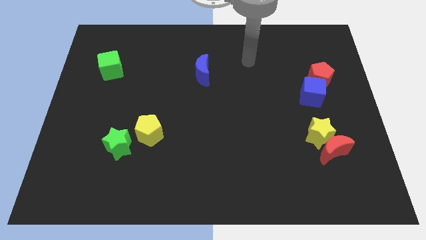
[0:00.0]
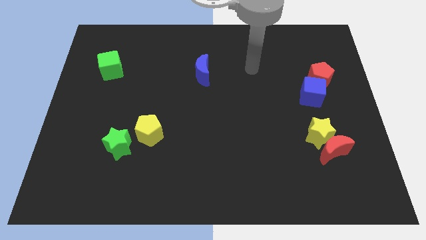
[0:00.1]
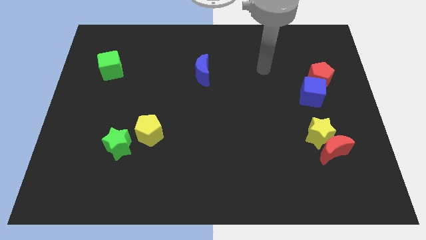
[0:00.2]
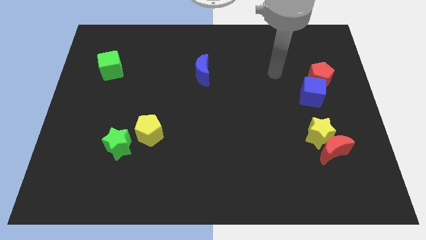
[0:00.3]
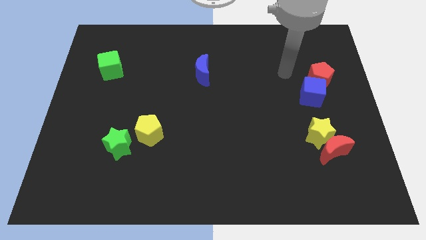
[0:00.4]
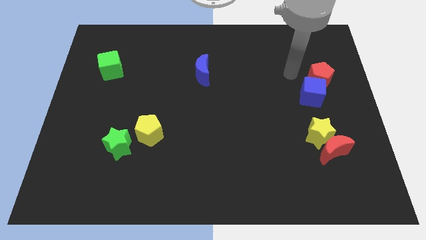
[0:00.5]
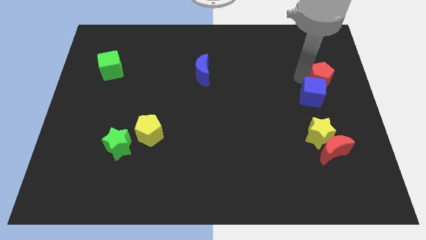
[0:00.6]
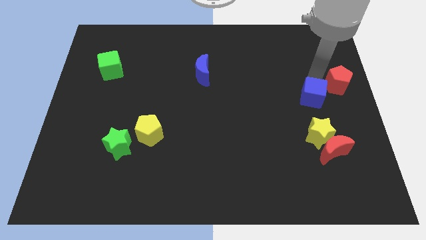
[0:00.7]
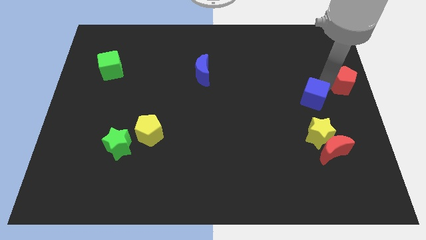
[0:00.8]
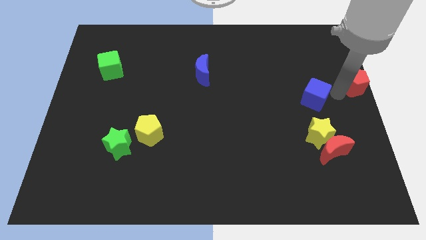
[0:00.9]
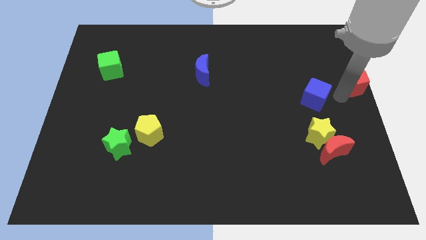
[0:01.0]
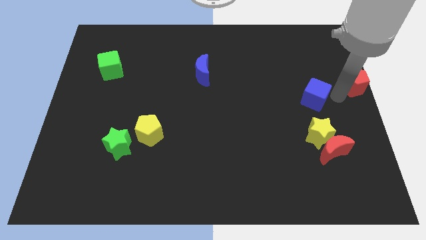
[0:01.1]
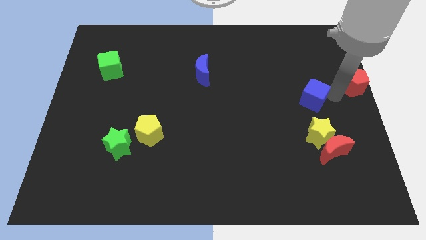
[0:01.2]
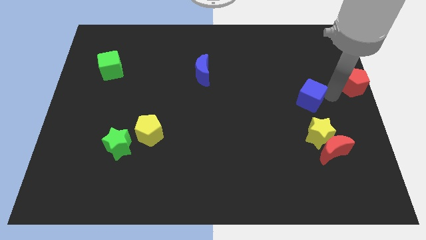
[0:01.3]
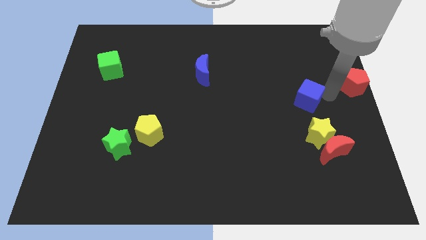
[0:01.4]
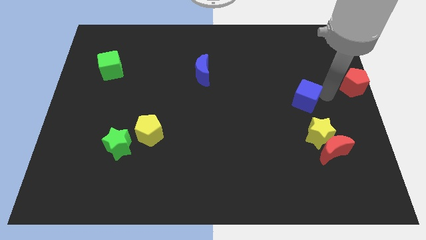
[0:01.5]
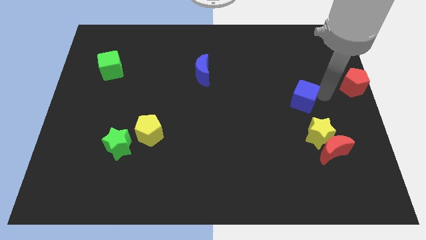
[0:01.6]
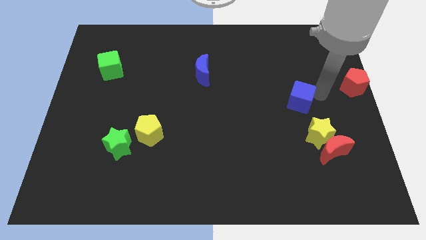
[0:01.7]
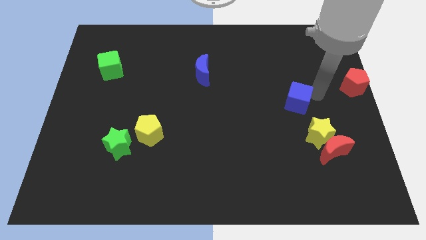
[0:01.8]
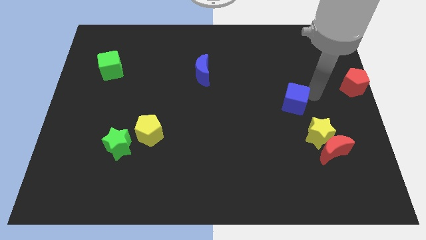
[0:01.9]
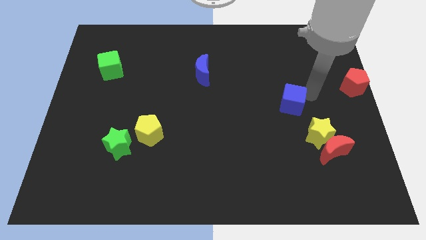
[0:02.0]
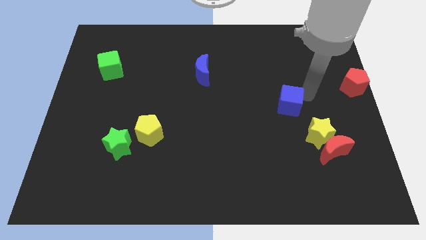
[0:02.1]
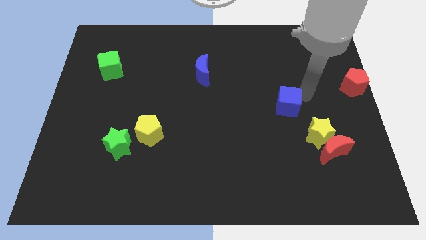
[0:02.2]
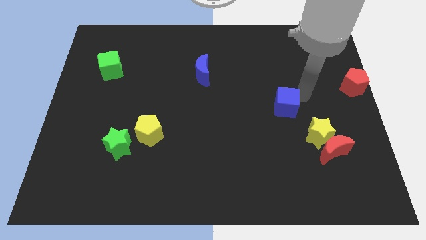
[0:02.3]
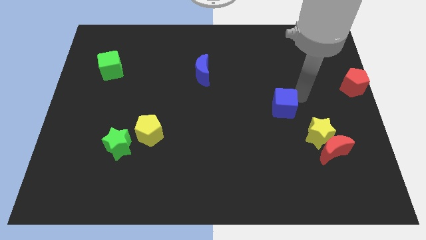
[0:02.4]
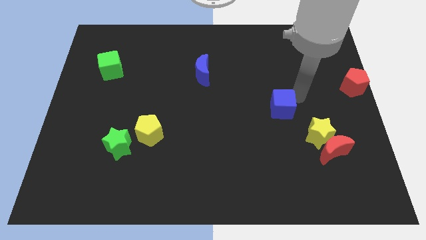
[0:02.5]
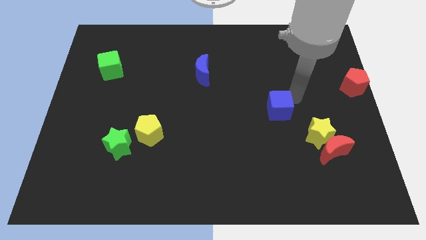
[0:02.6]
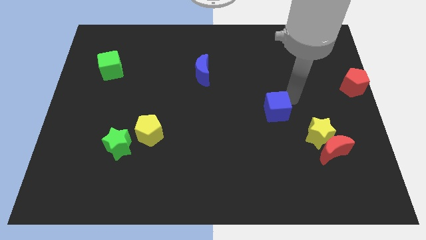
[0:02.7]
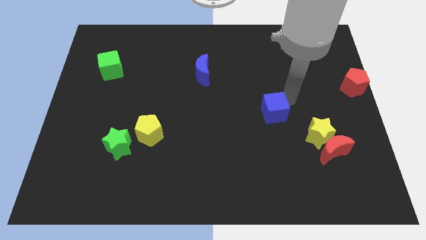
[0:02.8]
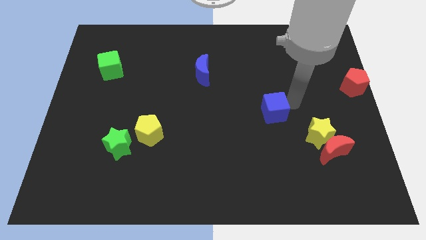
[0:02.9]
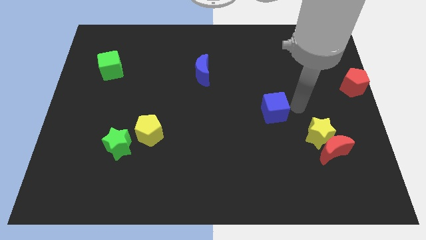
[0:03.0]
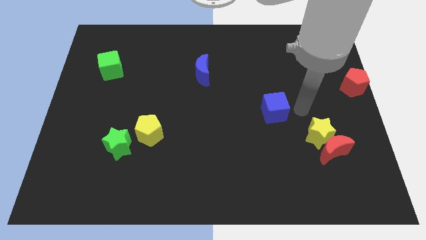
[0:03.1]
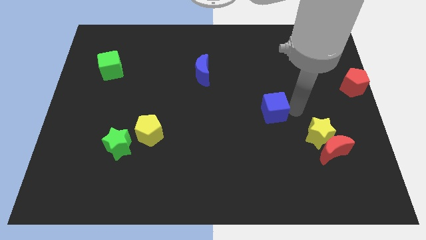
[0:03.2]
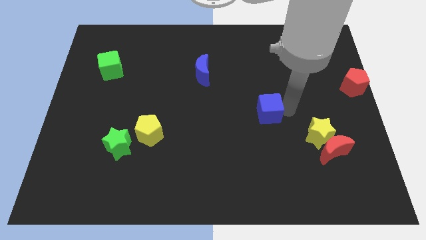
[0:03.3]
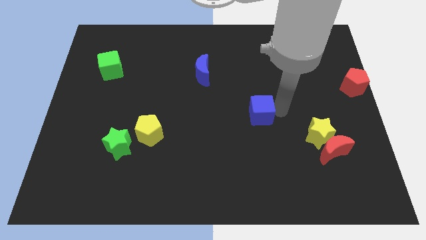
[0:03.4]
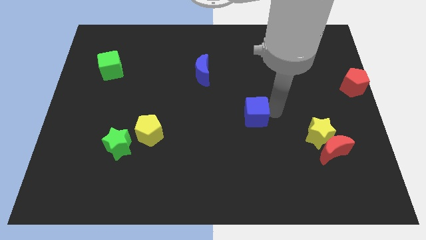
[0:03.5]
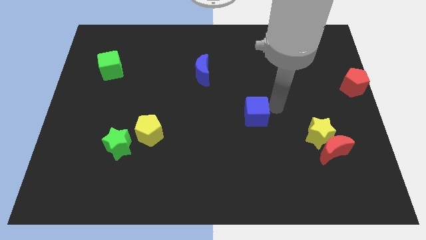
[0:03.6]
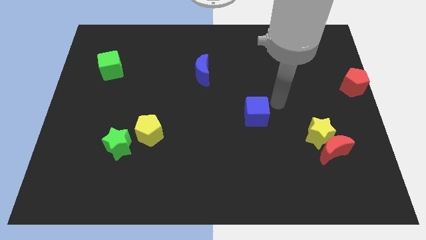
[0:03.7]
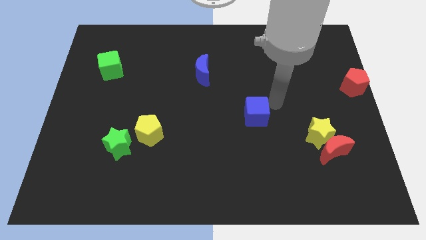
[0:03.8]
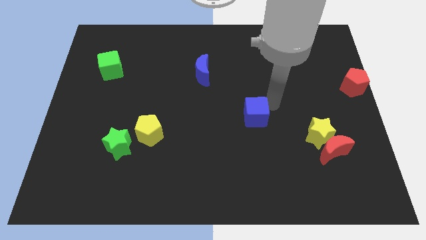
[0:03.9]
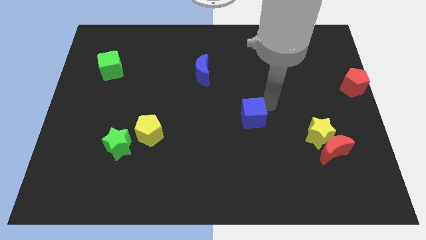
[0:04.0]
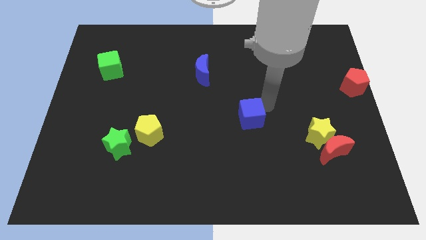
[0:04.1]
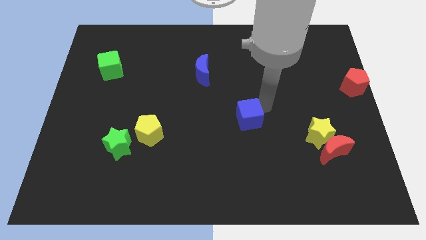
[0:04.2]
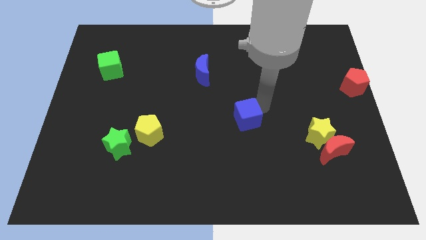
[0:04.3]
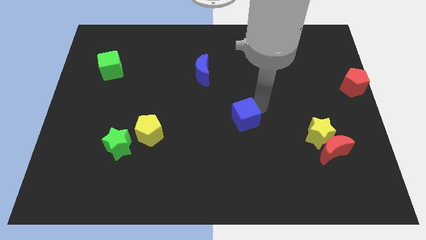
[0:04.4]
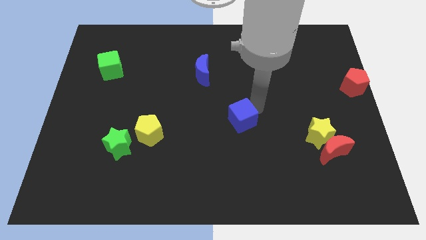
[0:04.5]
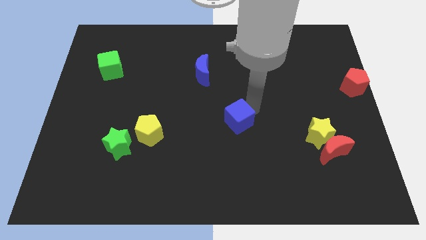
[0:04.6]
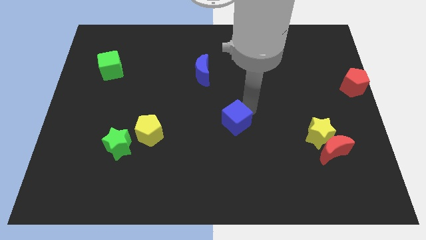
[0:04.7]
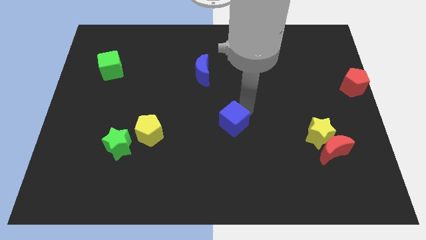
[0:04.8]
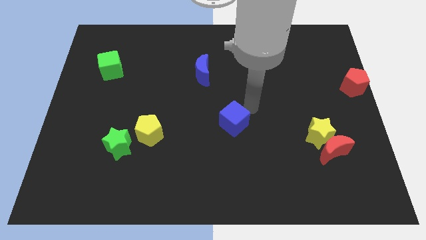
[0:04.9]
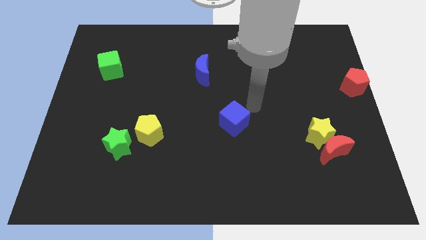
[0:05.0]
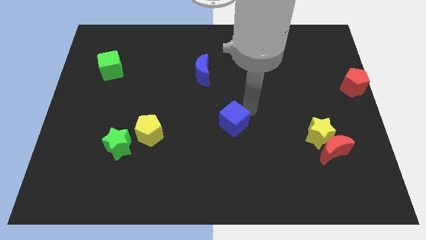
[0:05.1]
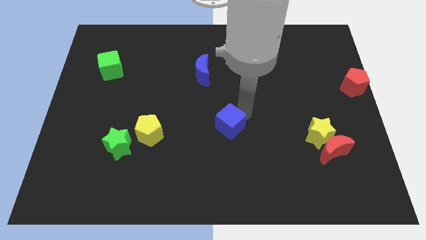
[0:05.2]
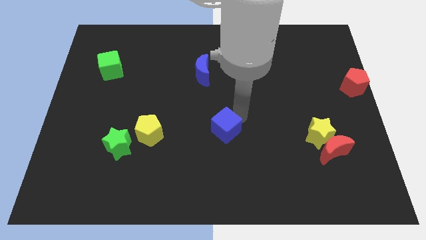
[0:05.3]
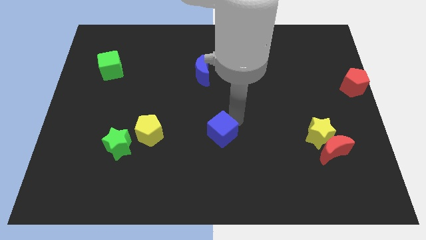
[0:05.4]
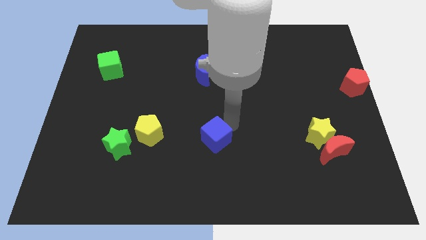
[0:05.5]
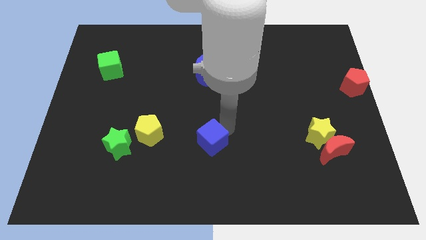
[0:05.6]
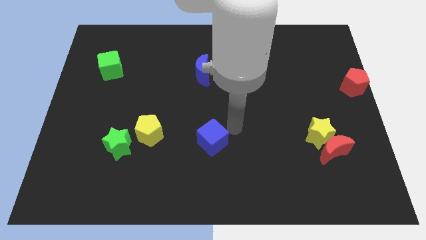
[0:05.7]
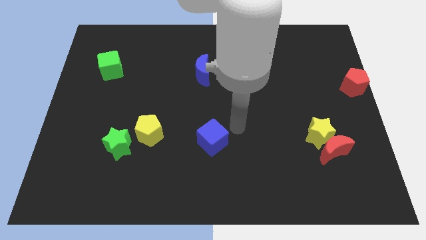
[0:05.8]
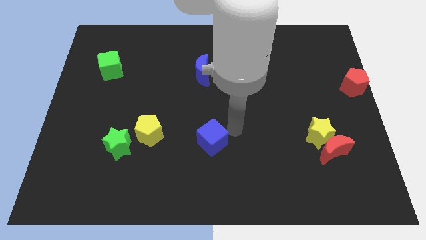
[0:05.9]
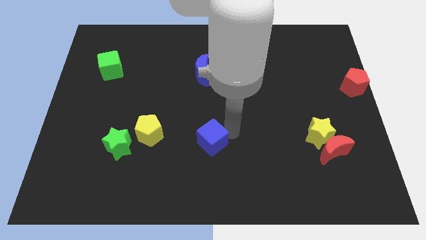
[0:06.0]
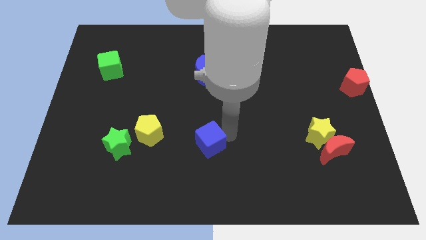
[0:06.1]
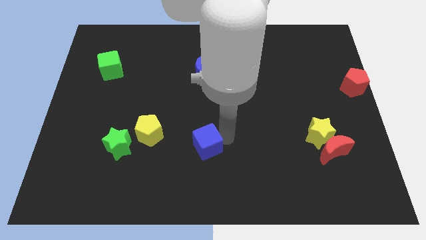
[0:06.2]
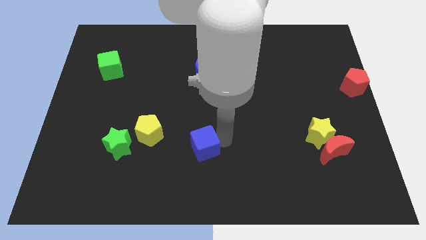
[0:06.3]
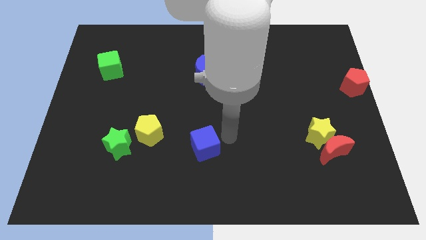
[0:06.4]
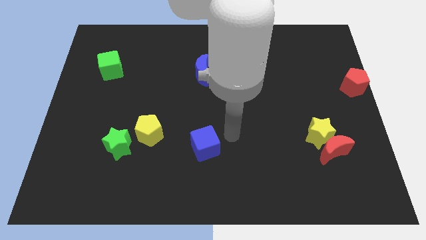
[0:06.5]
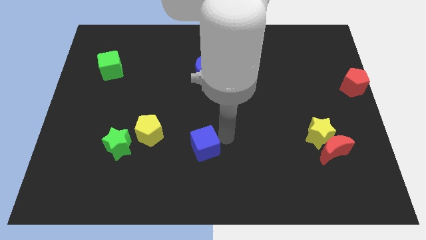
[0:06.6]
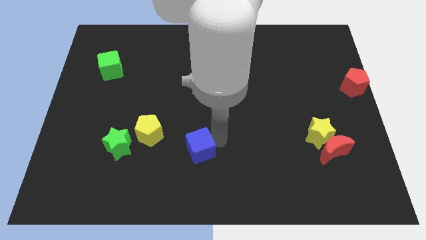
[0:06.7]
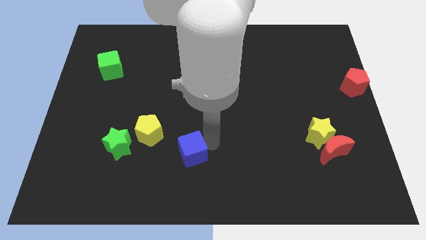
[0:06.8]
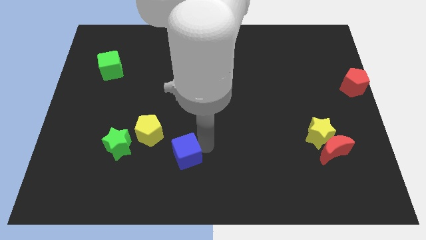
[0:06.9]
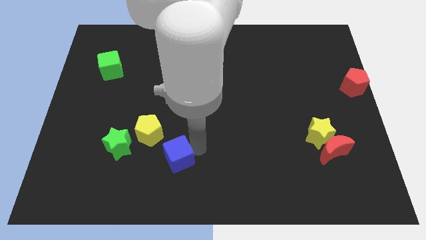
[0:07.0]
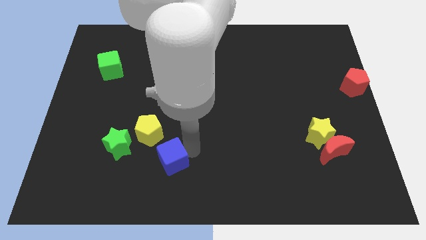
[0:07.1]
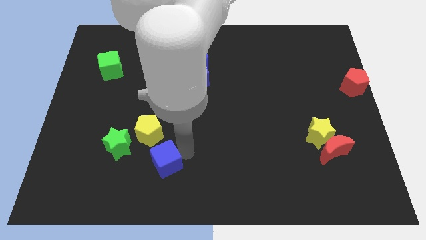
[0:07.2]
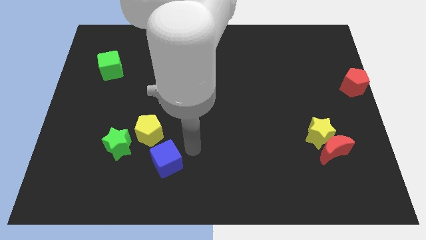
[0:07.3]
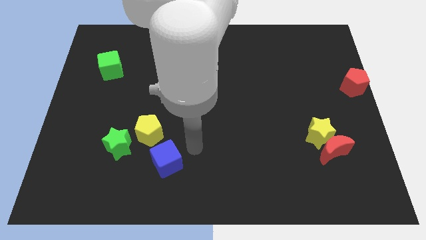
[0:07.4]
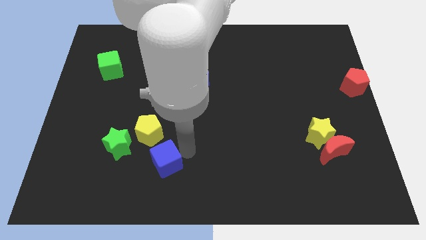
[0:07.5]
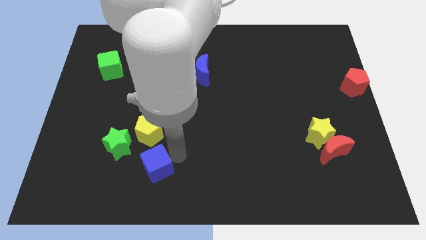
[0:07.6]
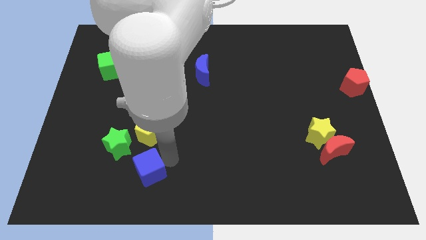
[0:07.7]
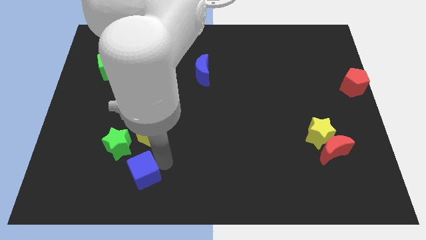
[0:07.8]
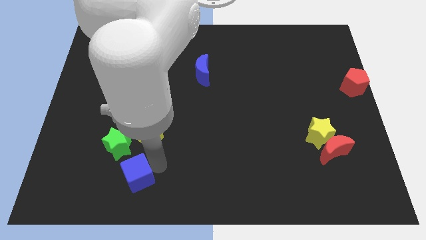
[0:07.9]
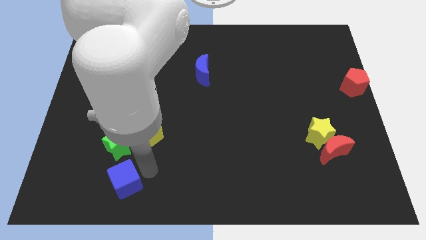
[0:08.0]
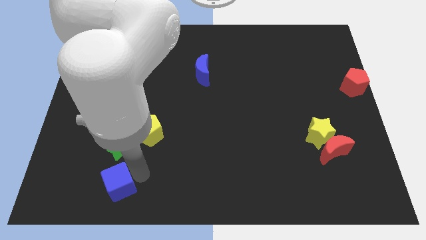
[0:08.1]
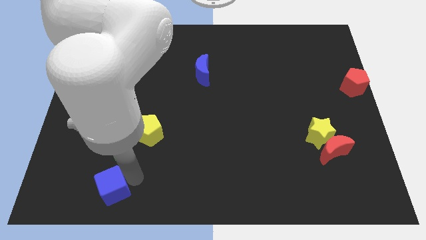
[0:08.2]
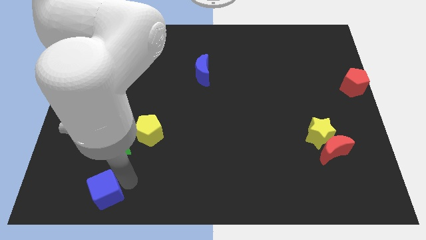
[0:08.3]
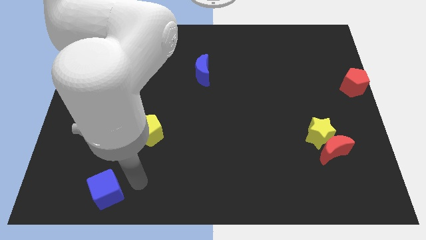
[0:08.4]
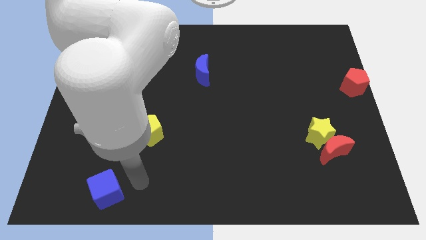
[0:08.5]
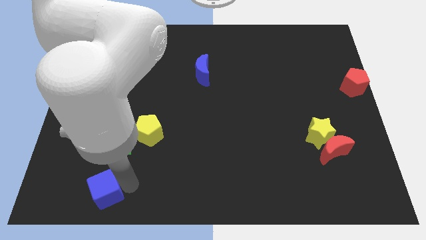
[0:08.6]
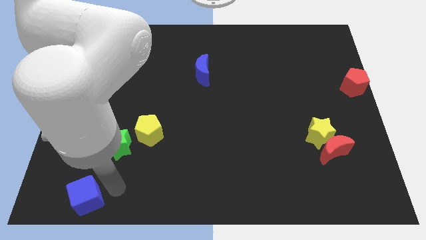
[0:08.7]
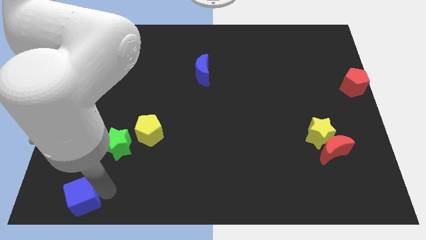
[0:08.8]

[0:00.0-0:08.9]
move the blue cube to the lower left corner
